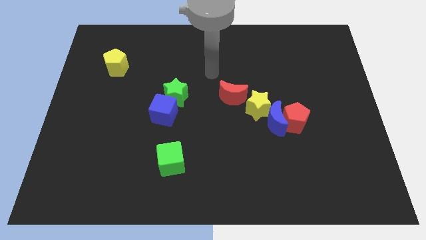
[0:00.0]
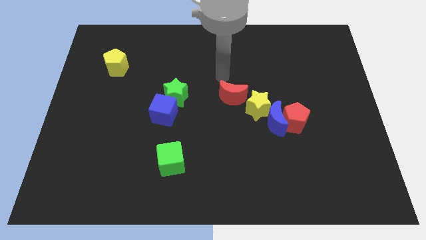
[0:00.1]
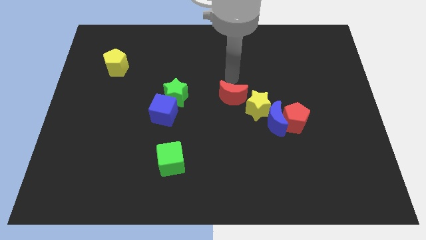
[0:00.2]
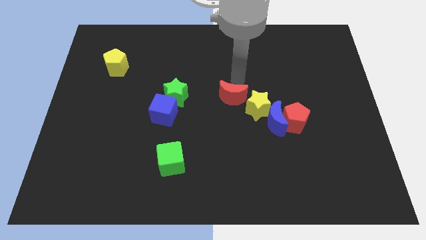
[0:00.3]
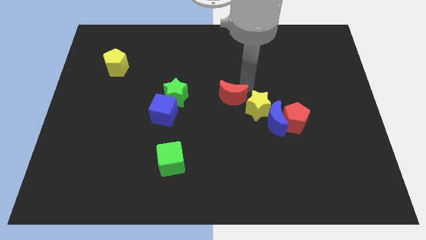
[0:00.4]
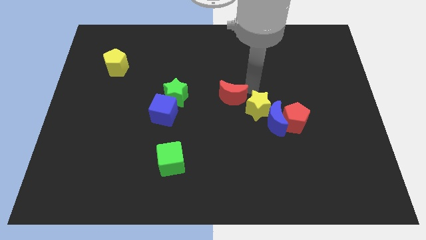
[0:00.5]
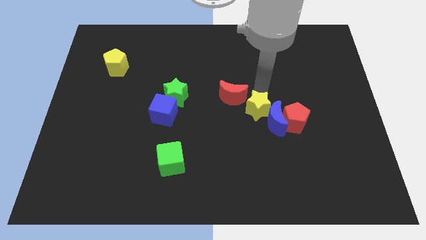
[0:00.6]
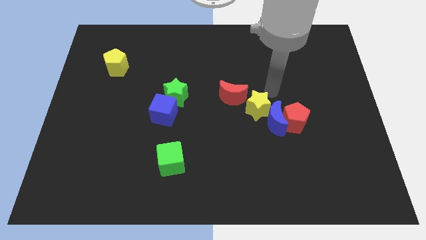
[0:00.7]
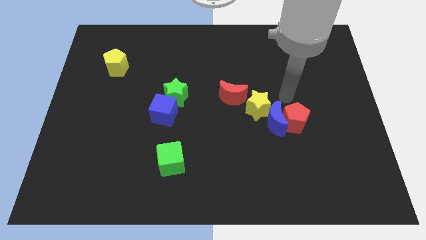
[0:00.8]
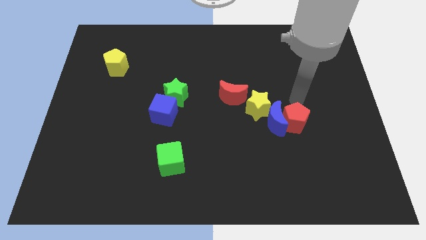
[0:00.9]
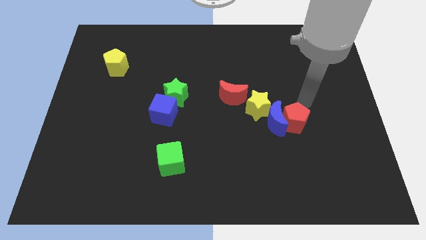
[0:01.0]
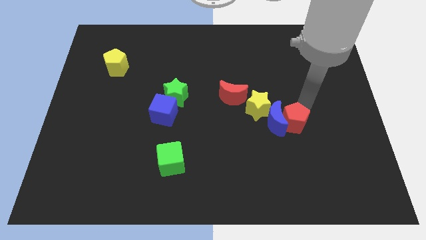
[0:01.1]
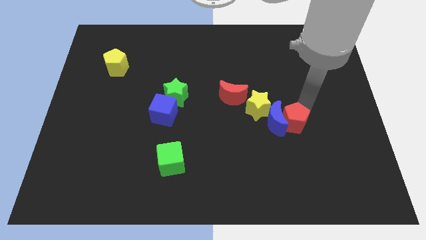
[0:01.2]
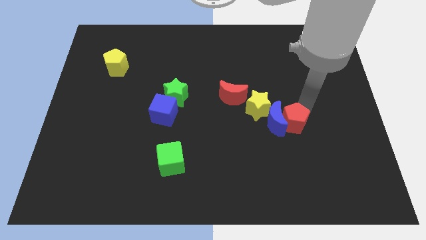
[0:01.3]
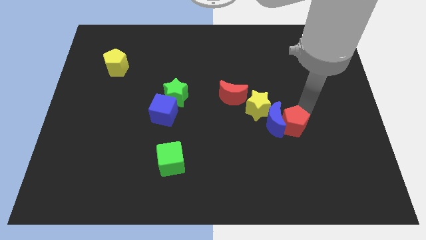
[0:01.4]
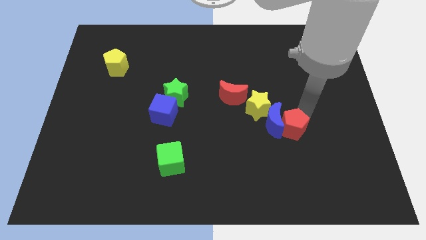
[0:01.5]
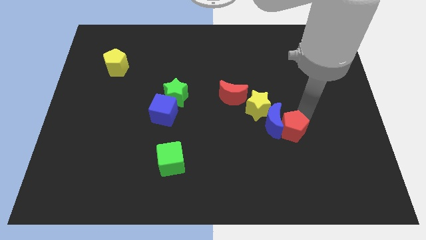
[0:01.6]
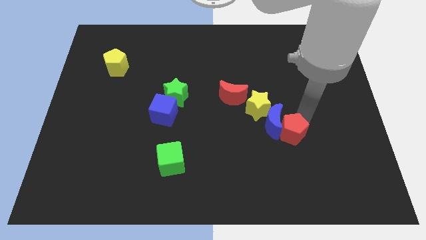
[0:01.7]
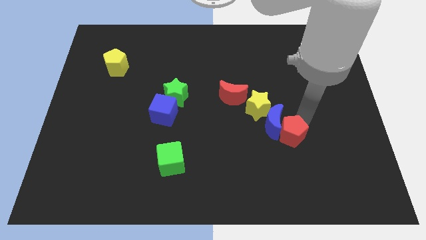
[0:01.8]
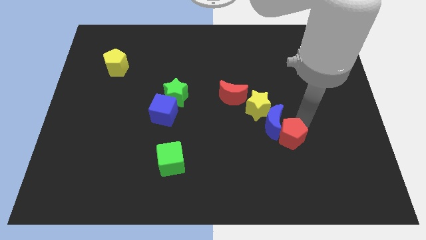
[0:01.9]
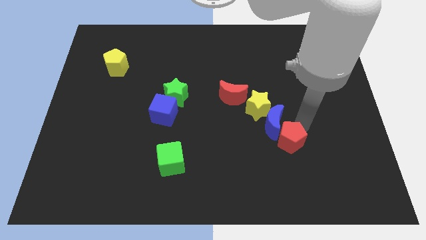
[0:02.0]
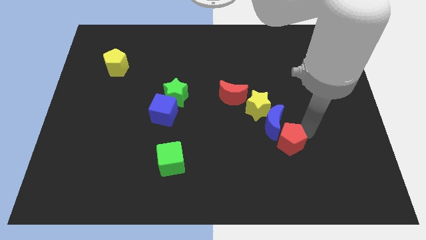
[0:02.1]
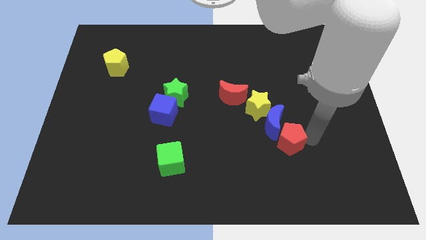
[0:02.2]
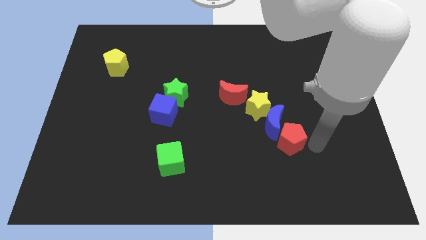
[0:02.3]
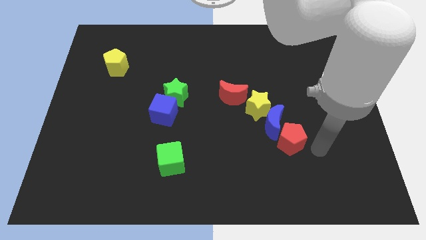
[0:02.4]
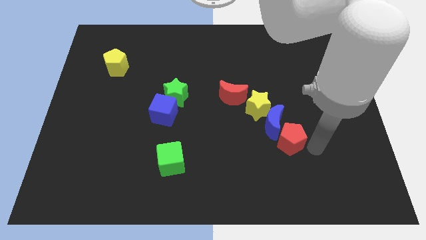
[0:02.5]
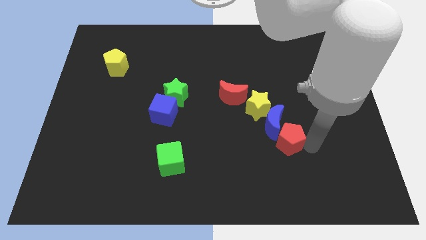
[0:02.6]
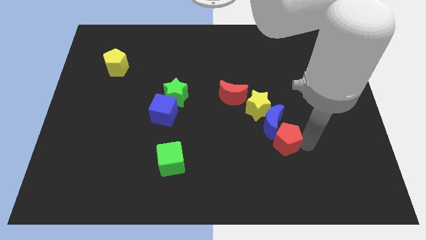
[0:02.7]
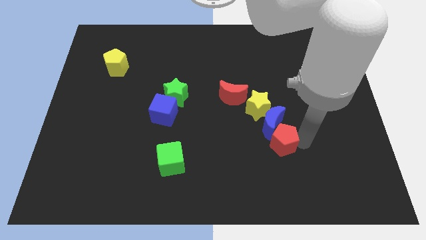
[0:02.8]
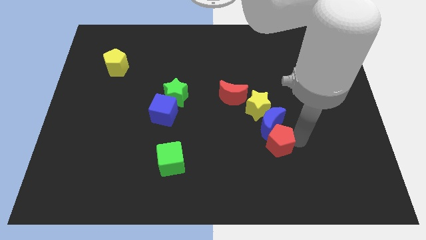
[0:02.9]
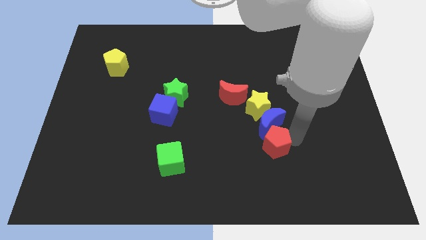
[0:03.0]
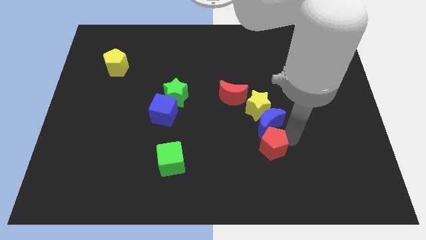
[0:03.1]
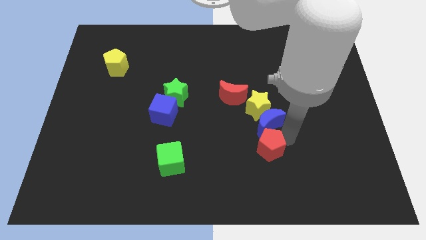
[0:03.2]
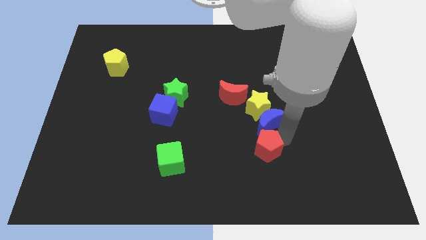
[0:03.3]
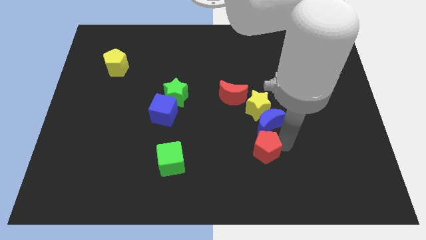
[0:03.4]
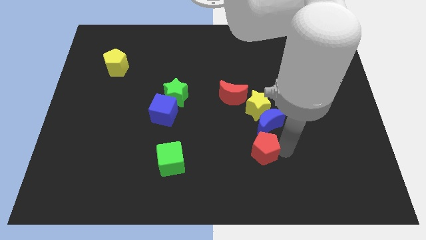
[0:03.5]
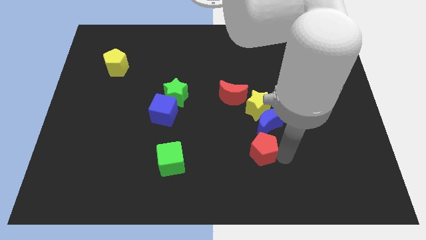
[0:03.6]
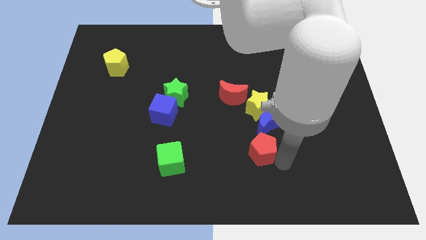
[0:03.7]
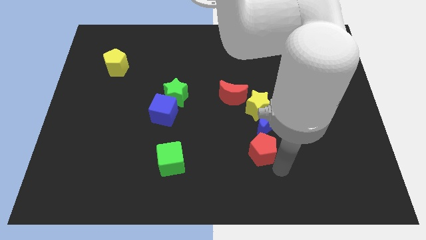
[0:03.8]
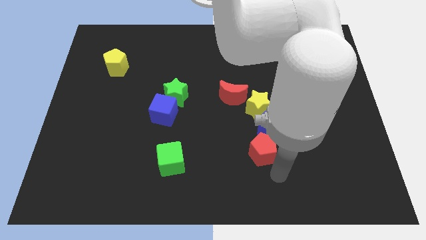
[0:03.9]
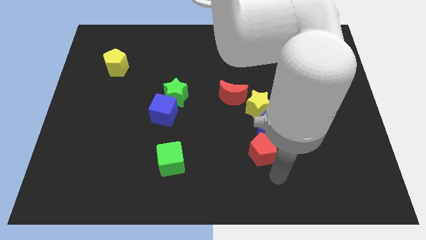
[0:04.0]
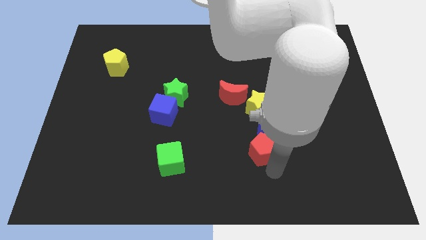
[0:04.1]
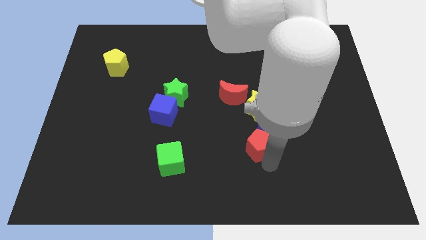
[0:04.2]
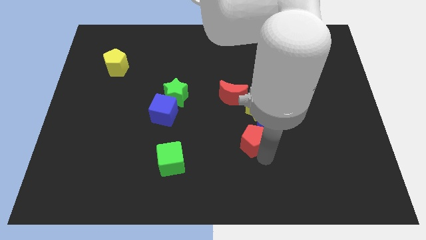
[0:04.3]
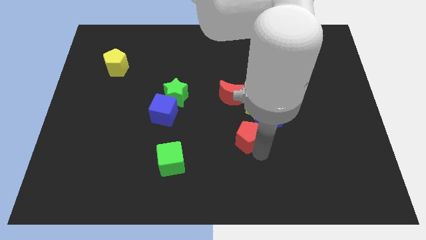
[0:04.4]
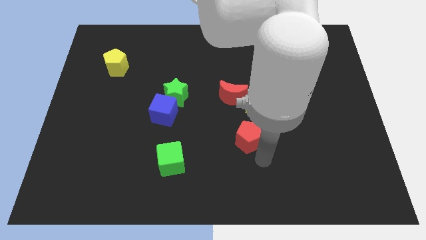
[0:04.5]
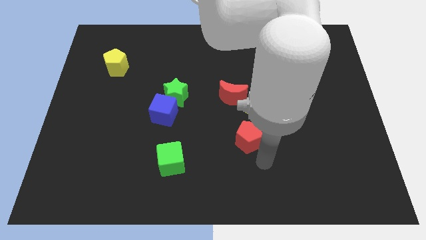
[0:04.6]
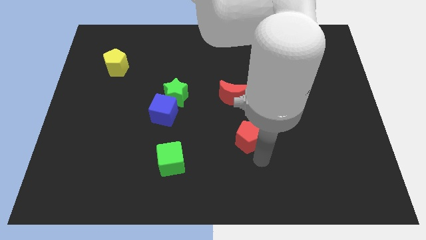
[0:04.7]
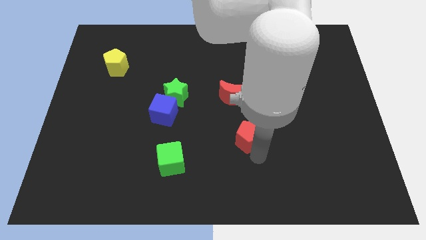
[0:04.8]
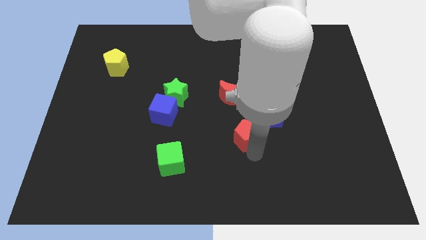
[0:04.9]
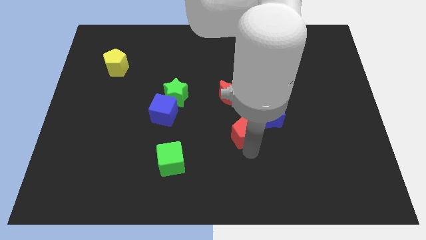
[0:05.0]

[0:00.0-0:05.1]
put the red pentagon to the center

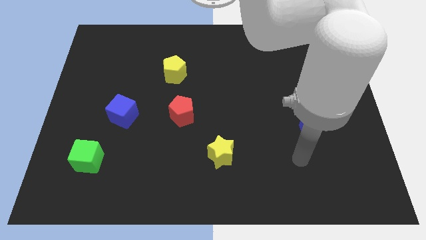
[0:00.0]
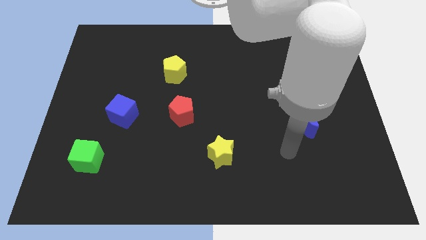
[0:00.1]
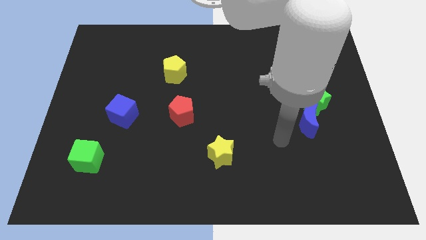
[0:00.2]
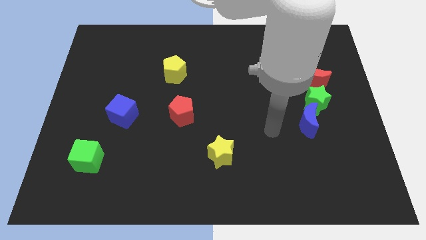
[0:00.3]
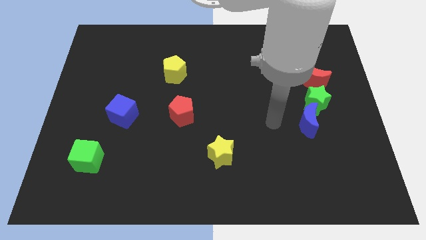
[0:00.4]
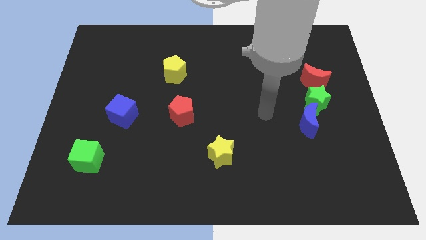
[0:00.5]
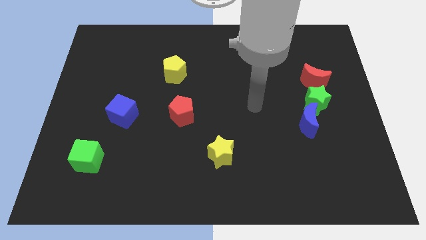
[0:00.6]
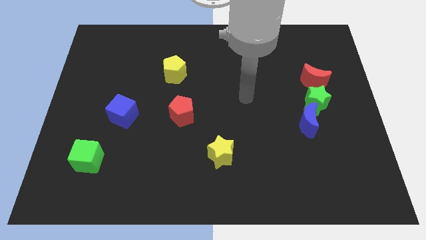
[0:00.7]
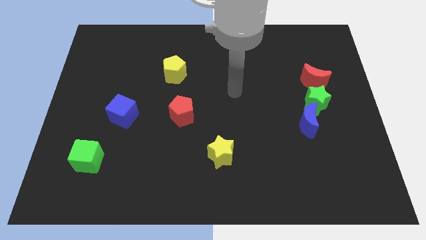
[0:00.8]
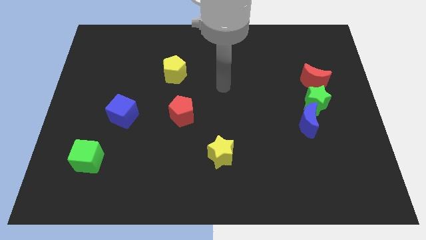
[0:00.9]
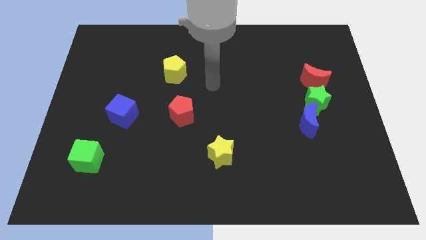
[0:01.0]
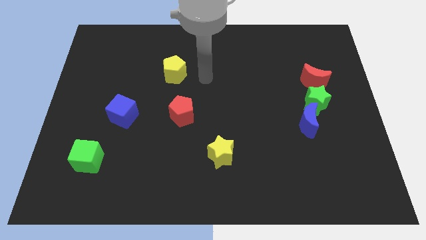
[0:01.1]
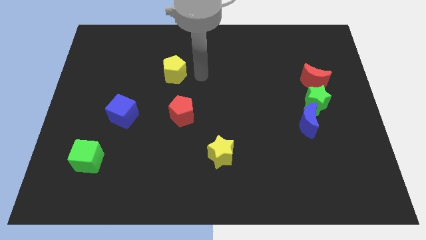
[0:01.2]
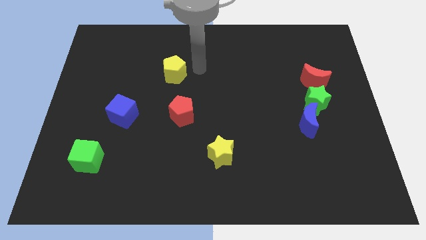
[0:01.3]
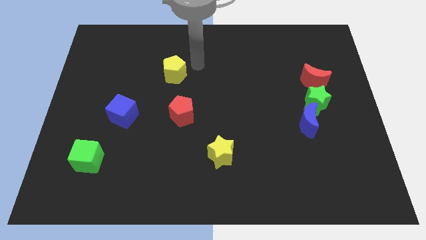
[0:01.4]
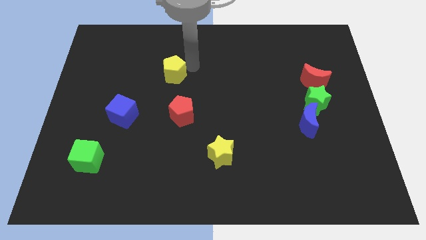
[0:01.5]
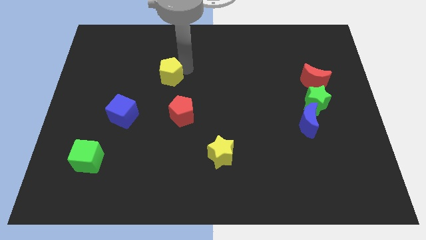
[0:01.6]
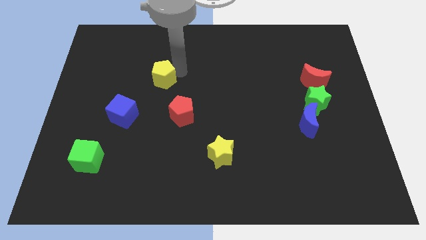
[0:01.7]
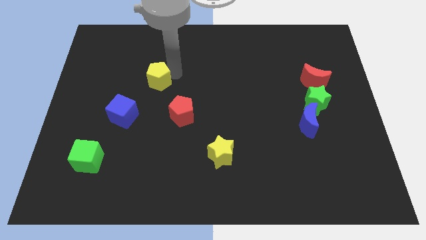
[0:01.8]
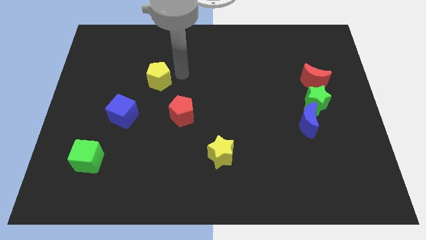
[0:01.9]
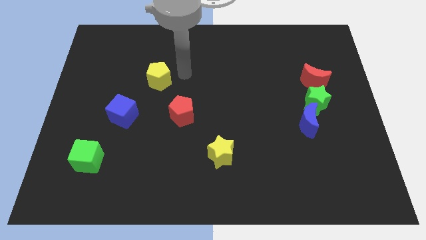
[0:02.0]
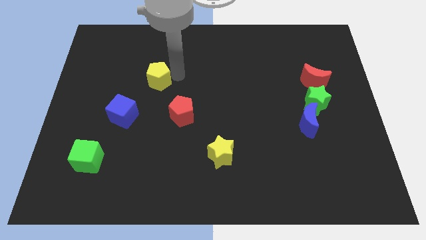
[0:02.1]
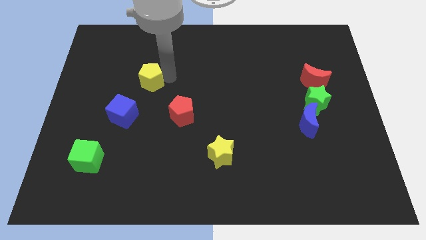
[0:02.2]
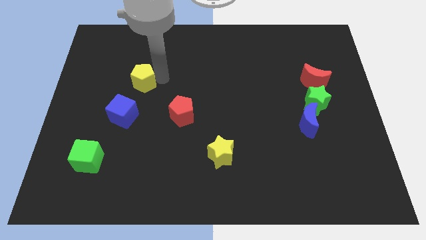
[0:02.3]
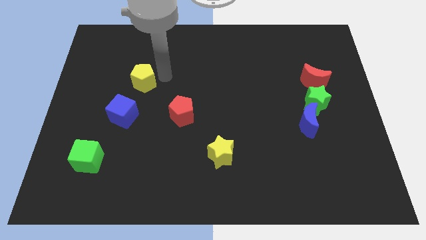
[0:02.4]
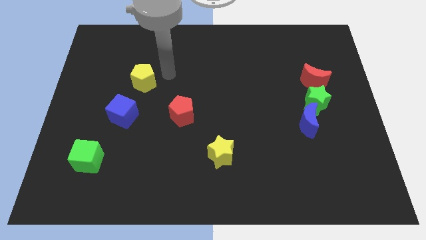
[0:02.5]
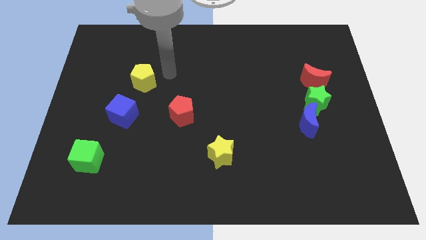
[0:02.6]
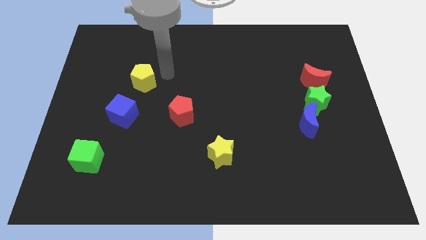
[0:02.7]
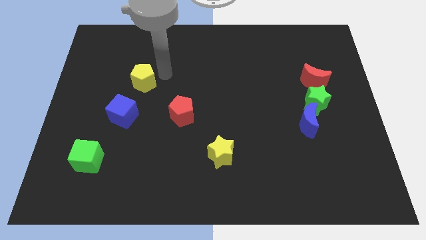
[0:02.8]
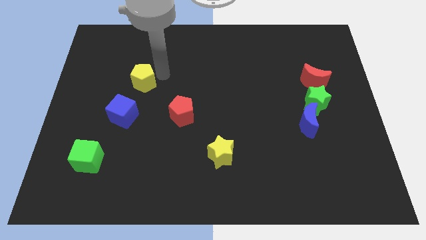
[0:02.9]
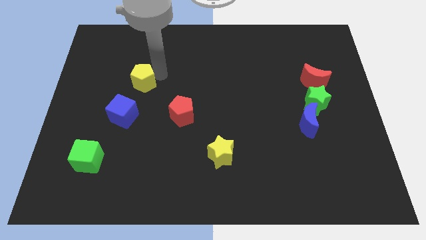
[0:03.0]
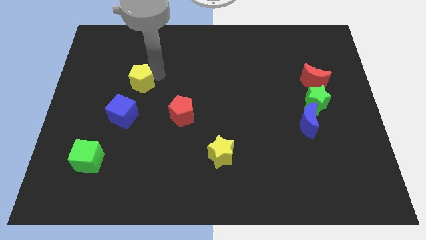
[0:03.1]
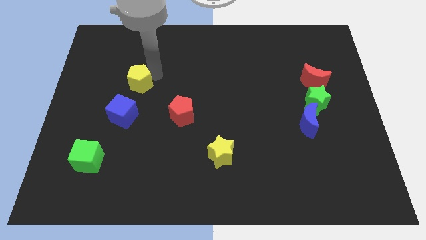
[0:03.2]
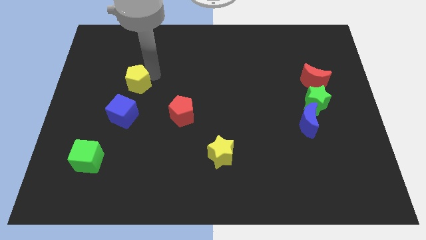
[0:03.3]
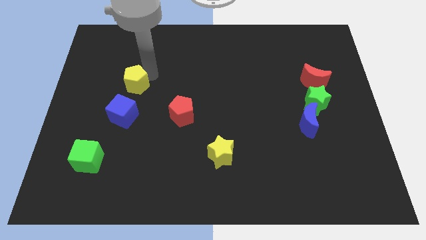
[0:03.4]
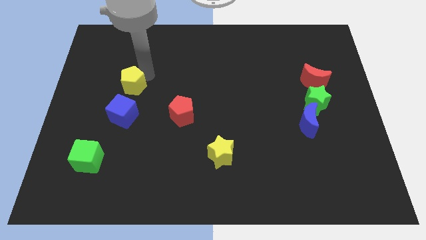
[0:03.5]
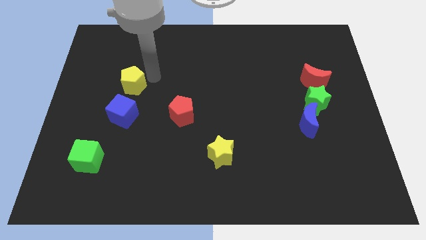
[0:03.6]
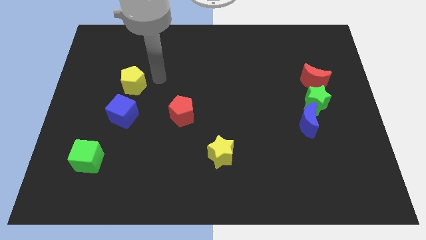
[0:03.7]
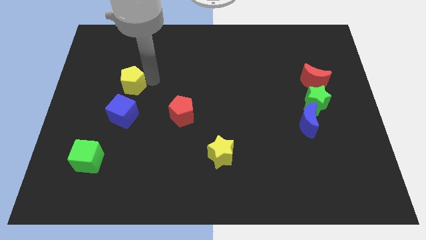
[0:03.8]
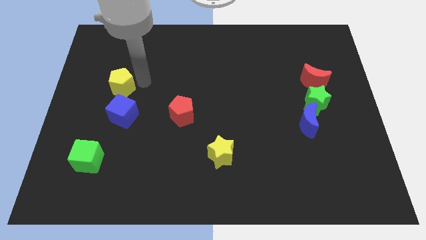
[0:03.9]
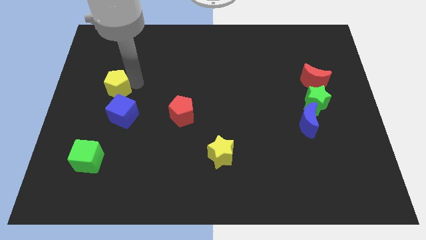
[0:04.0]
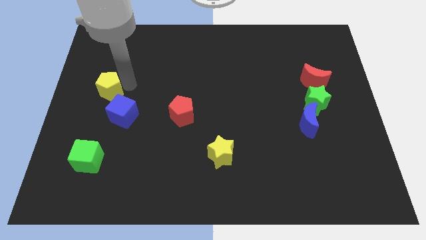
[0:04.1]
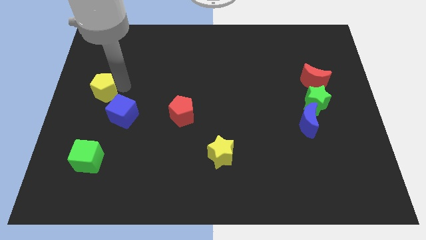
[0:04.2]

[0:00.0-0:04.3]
put the yellow pentagon to the center left
